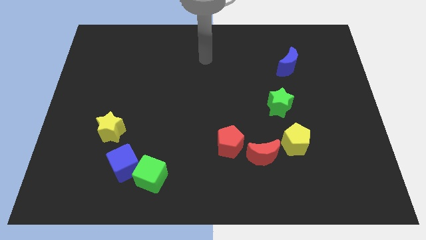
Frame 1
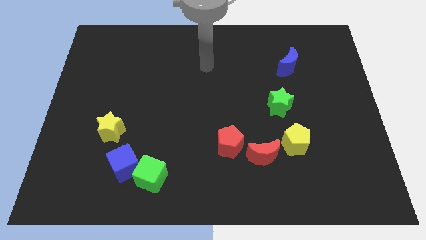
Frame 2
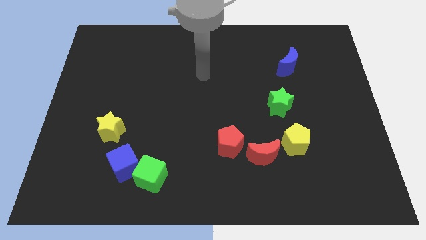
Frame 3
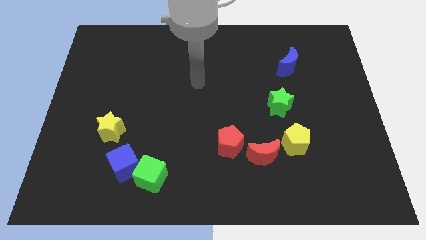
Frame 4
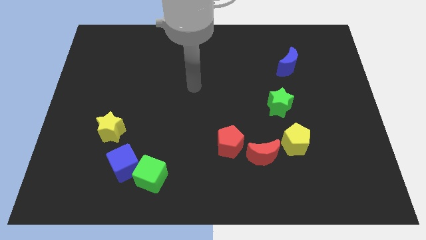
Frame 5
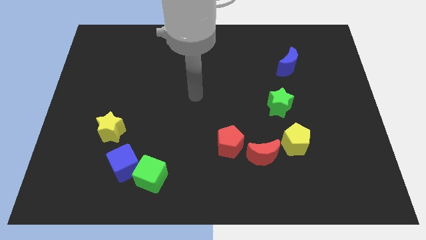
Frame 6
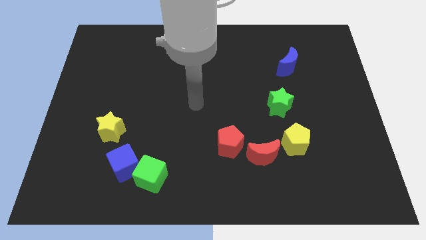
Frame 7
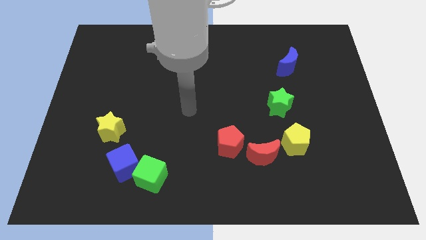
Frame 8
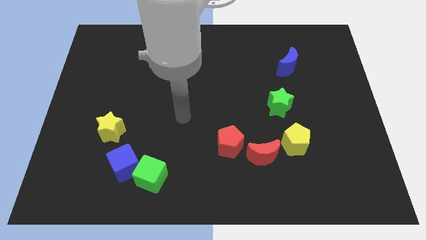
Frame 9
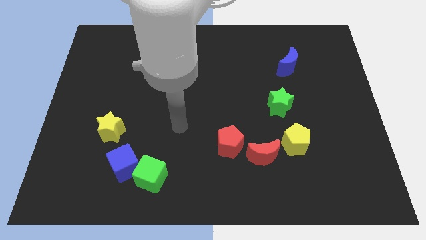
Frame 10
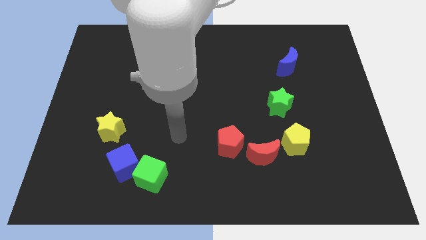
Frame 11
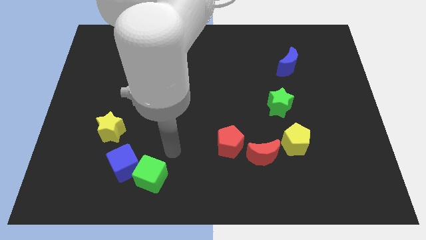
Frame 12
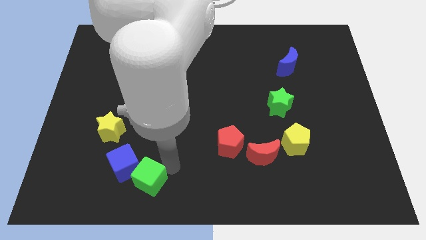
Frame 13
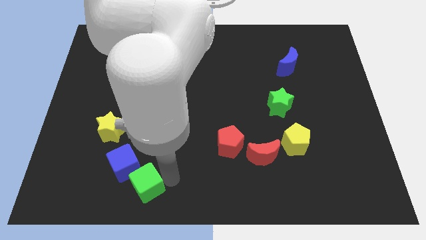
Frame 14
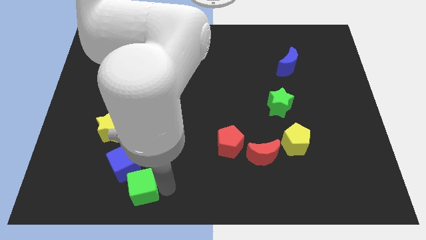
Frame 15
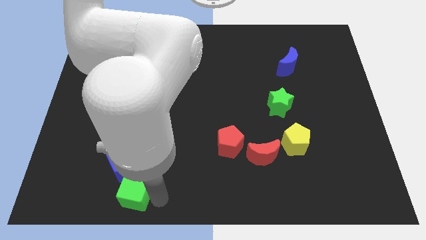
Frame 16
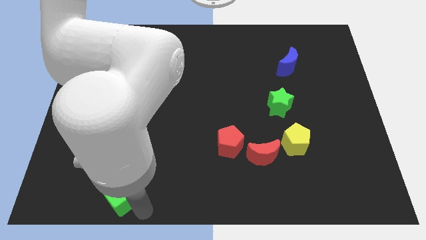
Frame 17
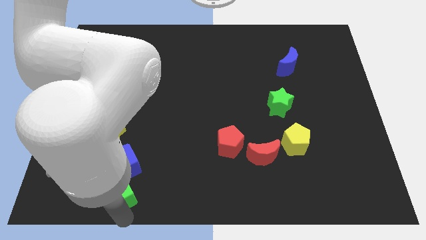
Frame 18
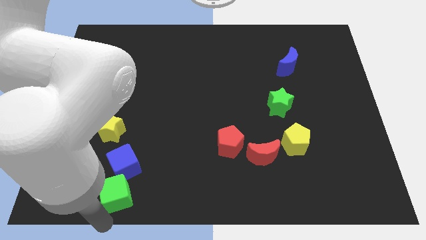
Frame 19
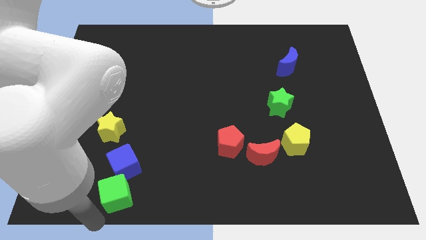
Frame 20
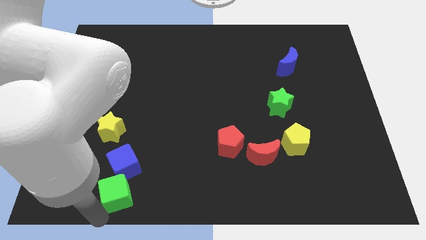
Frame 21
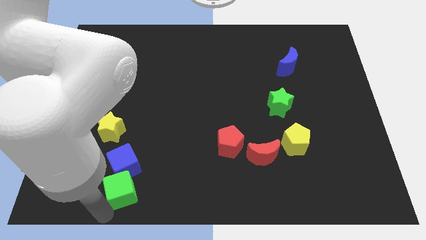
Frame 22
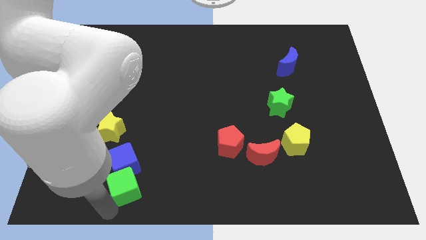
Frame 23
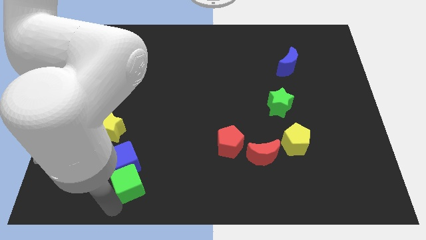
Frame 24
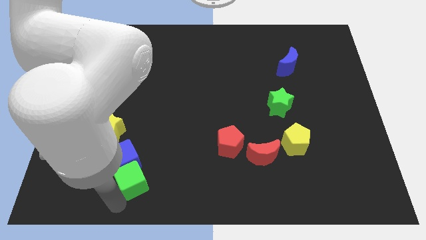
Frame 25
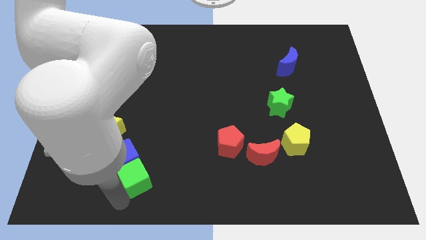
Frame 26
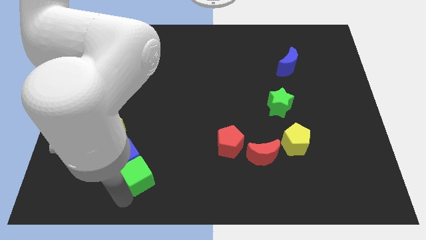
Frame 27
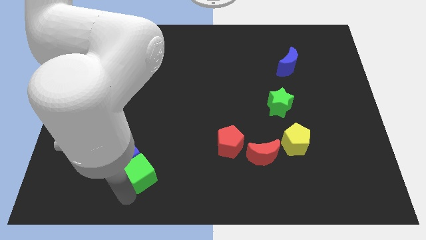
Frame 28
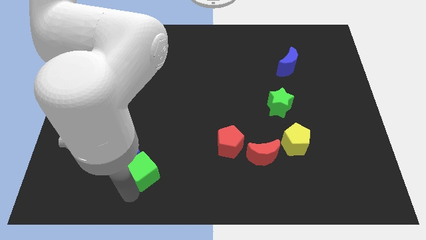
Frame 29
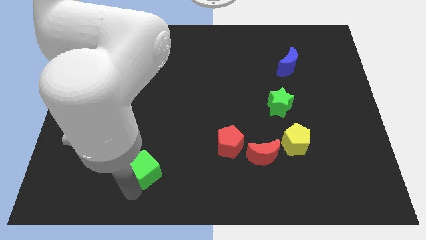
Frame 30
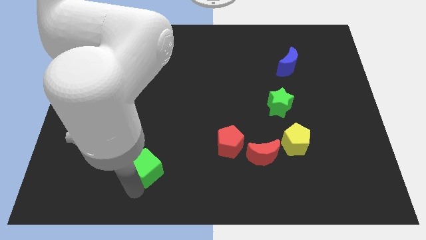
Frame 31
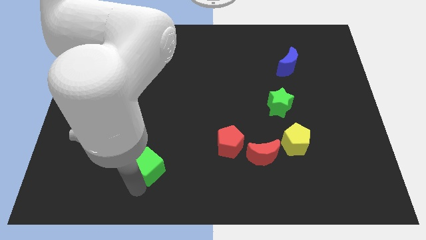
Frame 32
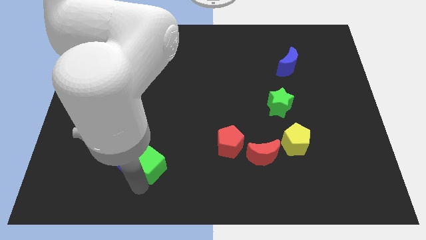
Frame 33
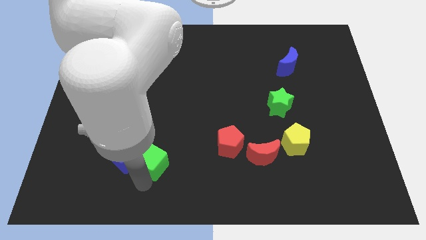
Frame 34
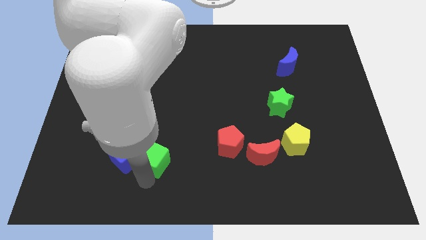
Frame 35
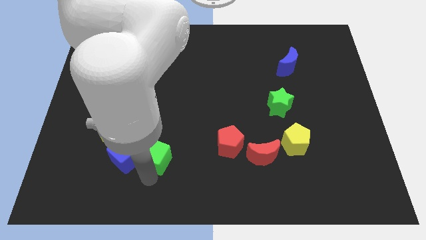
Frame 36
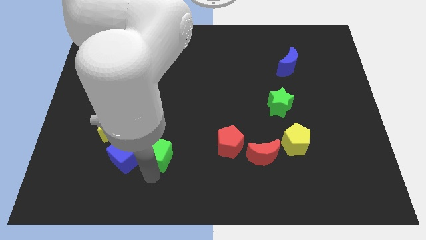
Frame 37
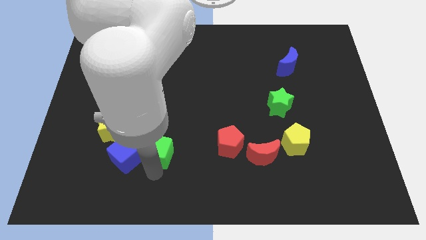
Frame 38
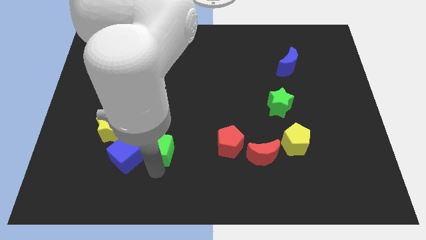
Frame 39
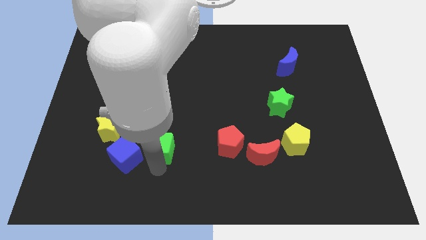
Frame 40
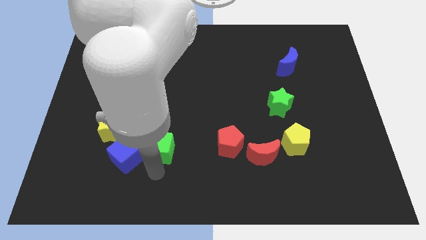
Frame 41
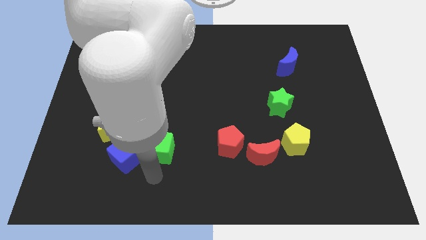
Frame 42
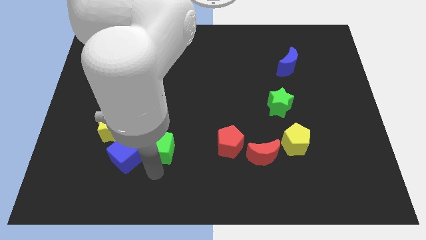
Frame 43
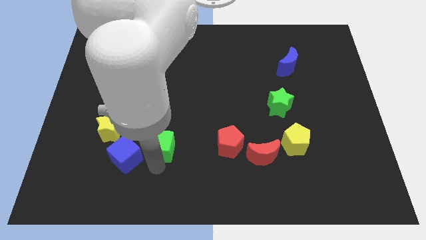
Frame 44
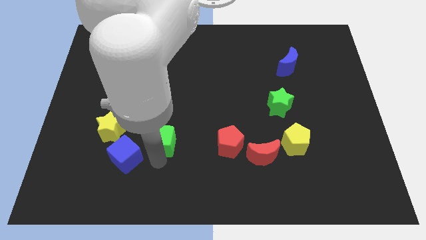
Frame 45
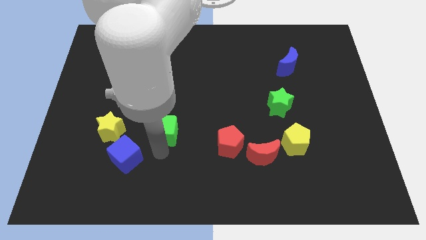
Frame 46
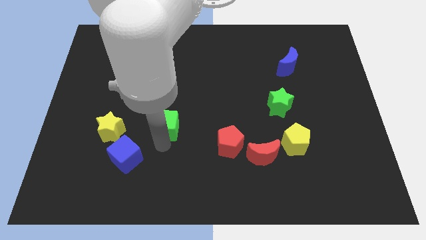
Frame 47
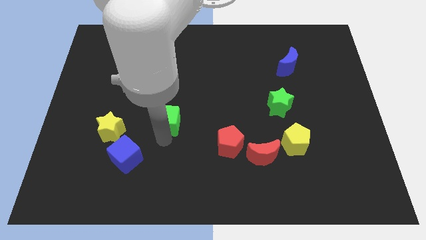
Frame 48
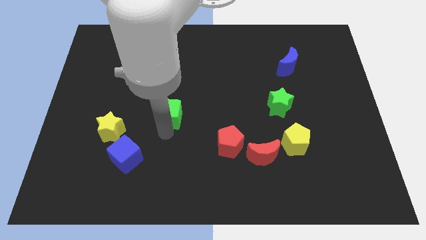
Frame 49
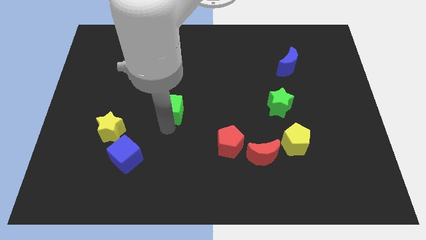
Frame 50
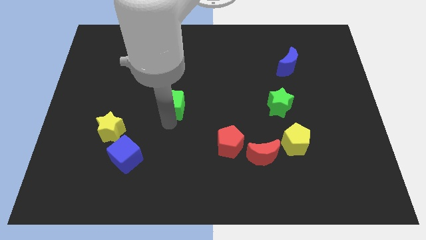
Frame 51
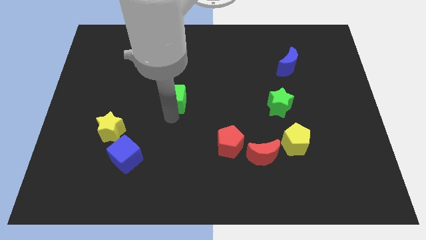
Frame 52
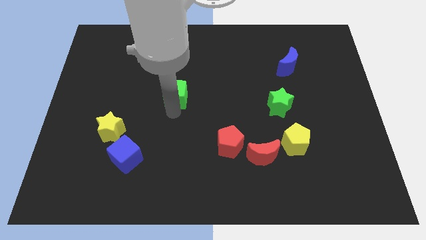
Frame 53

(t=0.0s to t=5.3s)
push the green cube upwards

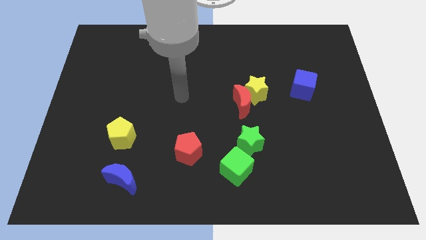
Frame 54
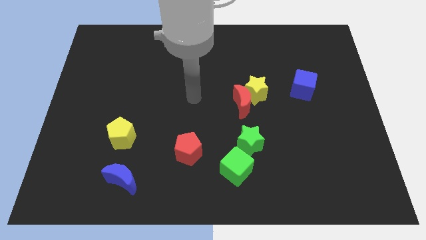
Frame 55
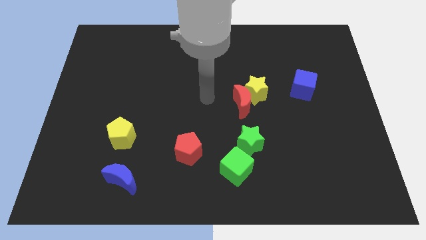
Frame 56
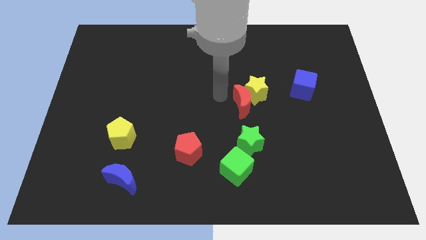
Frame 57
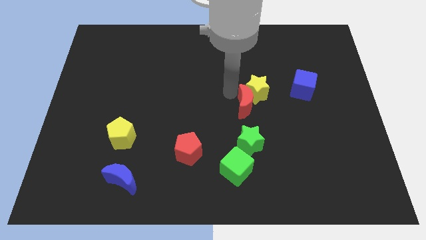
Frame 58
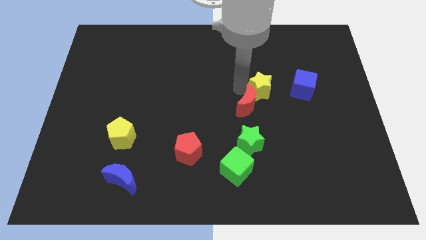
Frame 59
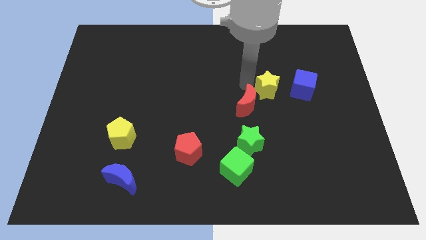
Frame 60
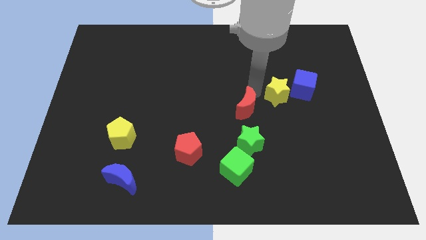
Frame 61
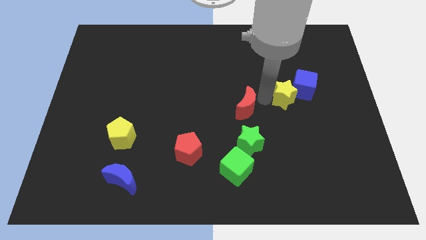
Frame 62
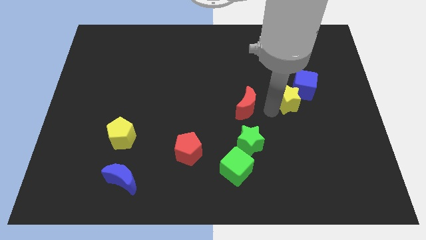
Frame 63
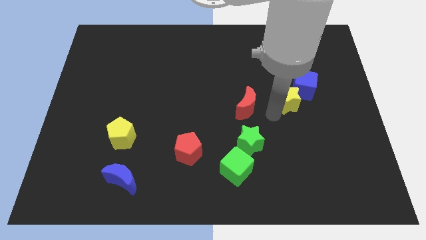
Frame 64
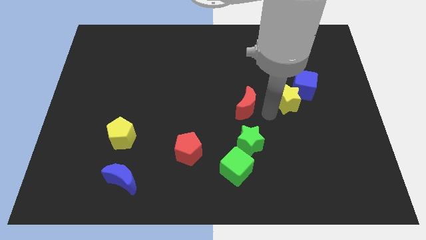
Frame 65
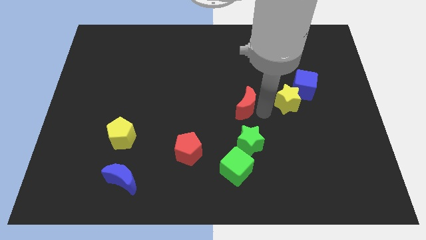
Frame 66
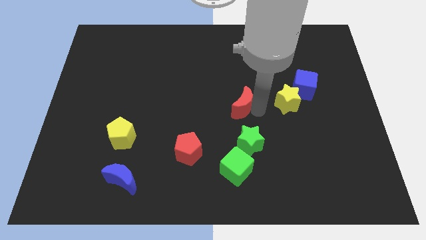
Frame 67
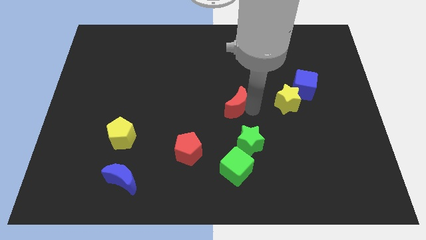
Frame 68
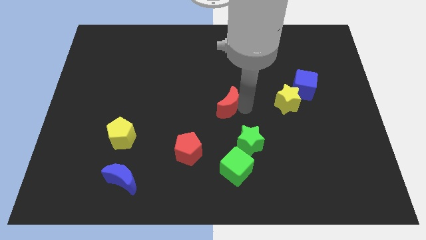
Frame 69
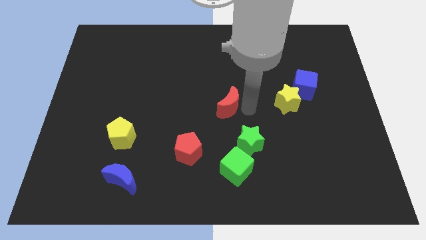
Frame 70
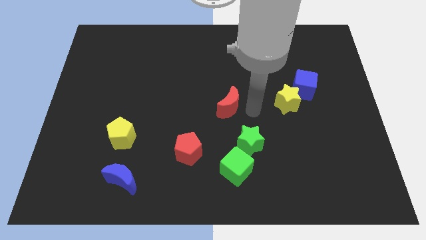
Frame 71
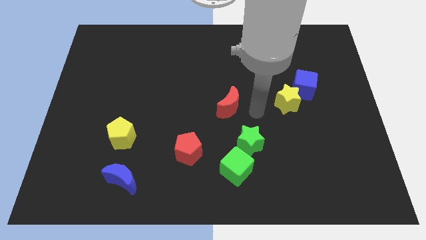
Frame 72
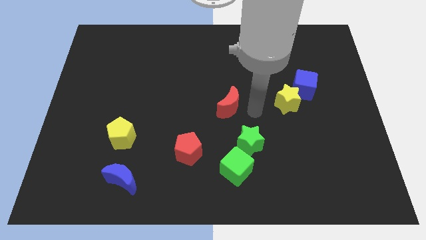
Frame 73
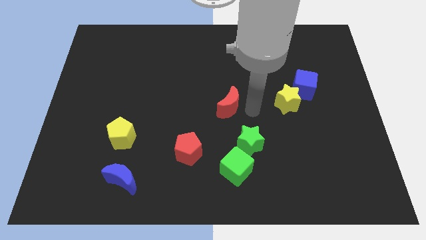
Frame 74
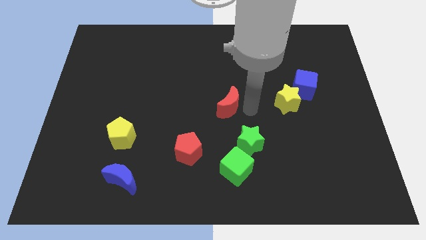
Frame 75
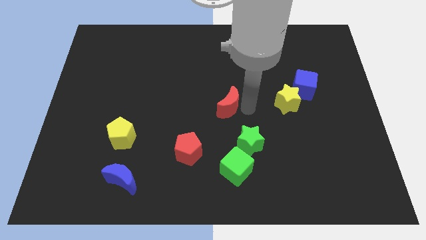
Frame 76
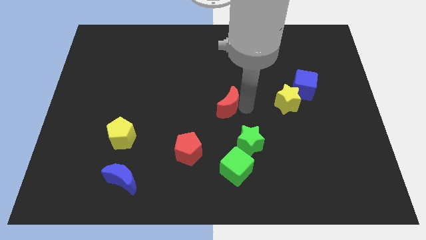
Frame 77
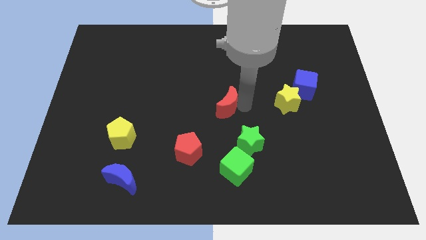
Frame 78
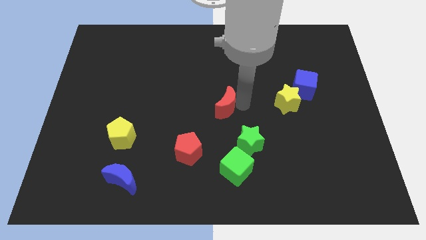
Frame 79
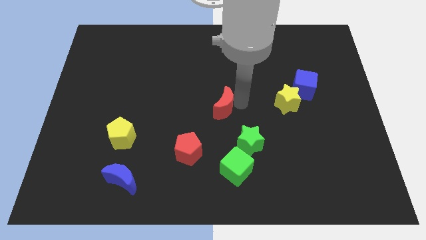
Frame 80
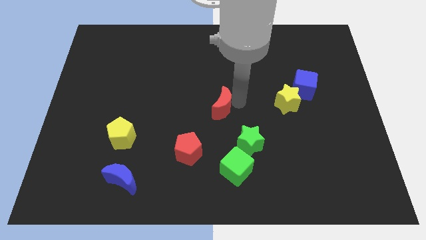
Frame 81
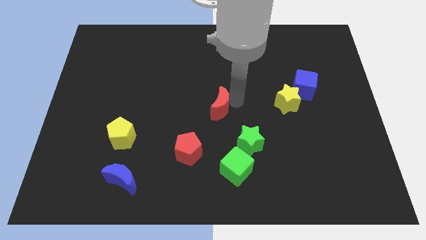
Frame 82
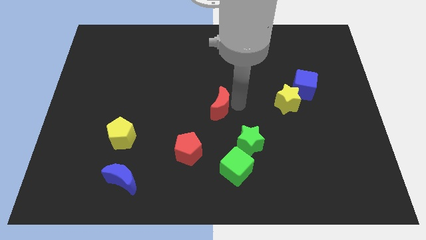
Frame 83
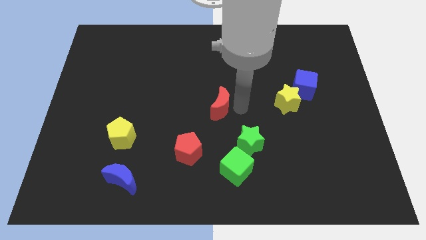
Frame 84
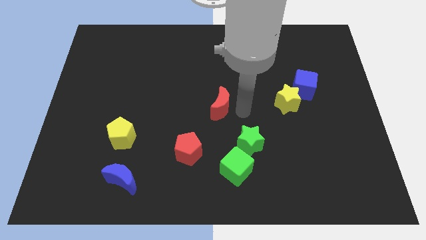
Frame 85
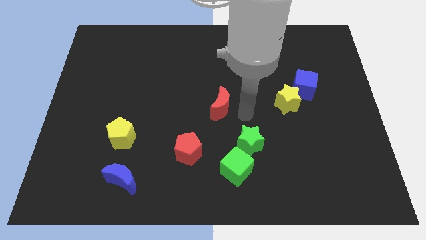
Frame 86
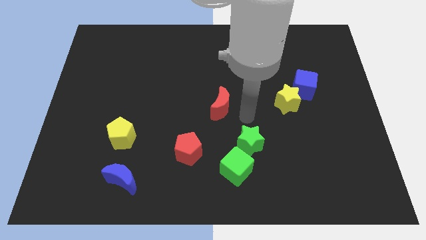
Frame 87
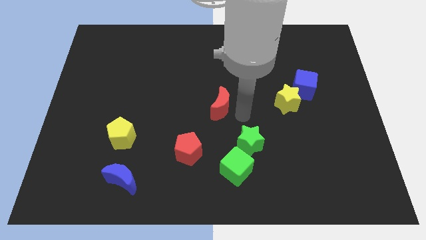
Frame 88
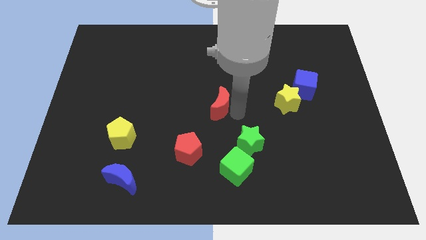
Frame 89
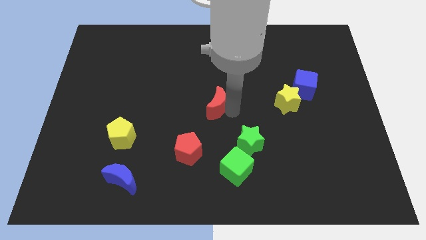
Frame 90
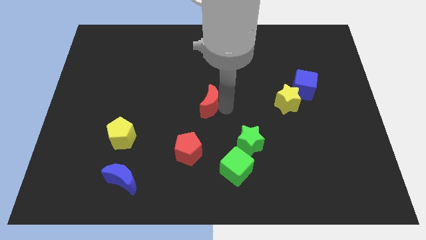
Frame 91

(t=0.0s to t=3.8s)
slightly move the red moon to the left
